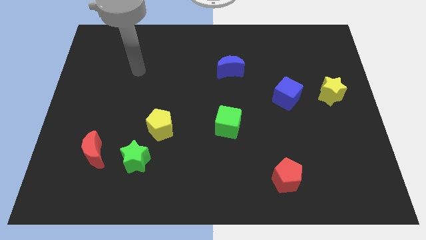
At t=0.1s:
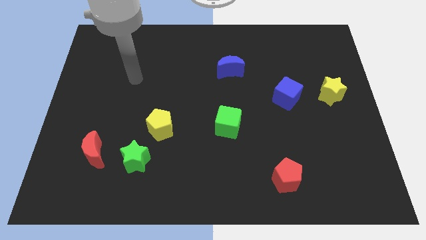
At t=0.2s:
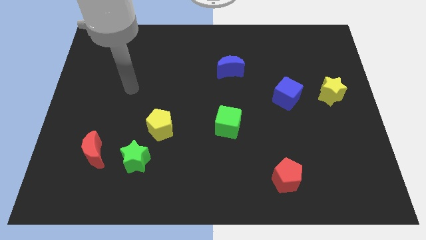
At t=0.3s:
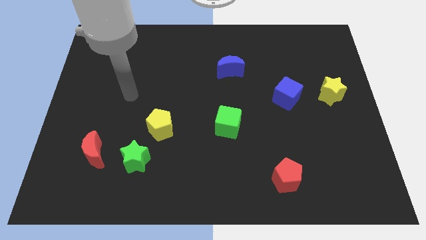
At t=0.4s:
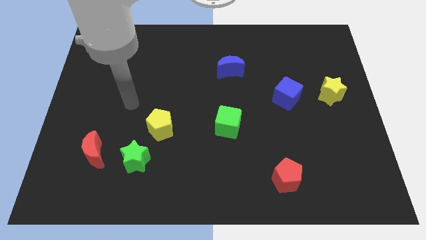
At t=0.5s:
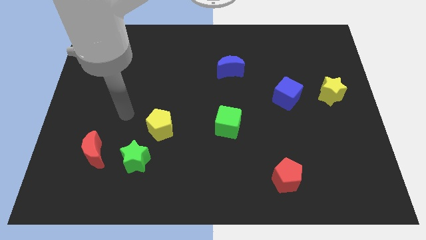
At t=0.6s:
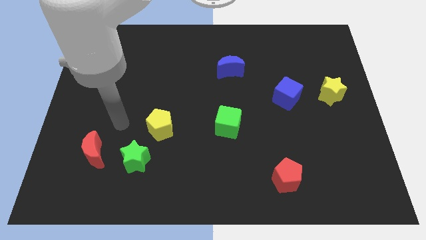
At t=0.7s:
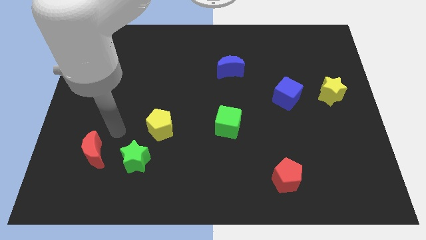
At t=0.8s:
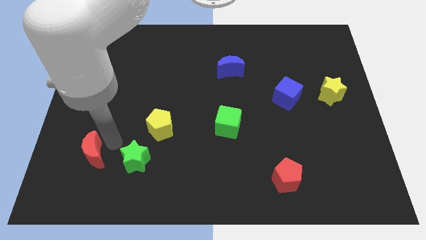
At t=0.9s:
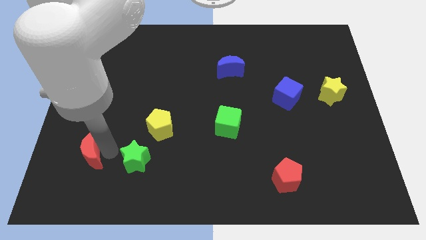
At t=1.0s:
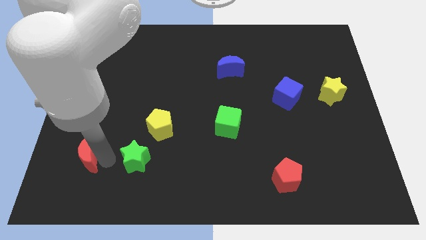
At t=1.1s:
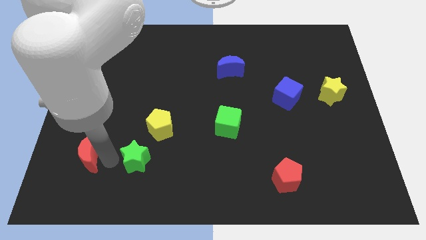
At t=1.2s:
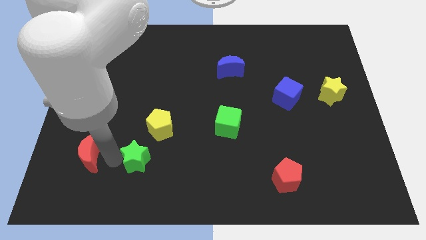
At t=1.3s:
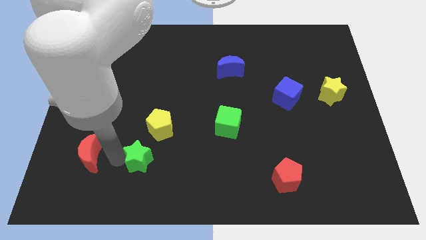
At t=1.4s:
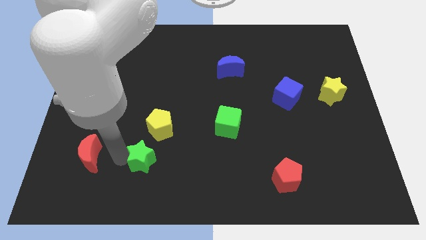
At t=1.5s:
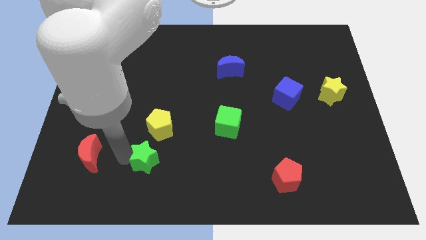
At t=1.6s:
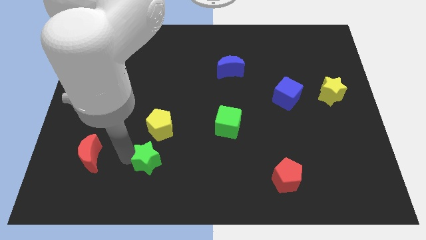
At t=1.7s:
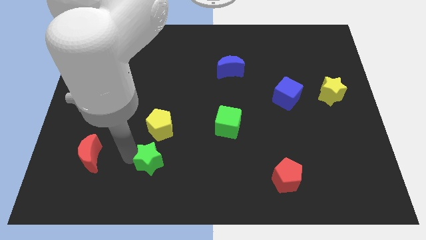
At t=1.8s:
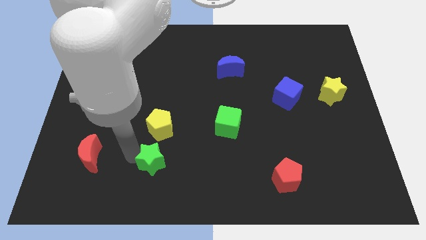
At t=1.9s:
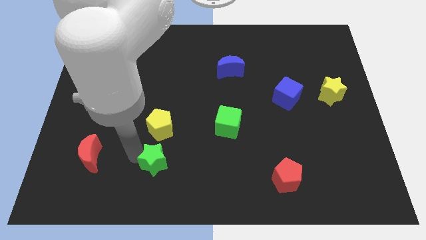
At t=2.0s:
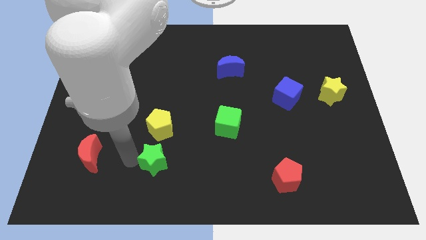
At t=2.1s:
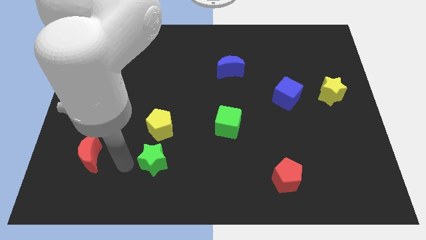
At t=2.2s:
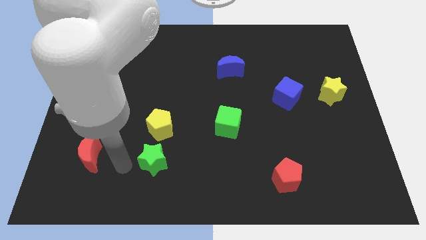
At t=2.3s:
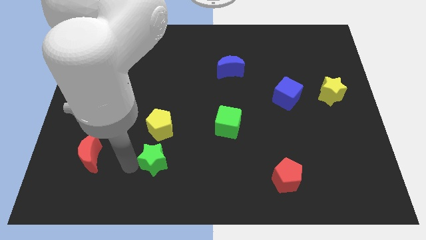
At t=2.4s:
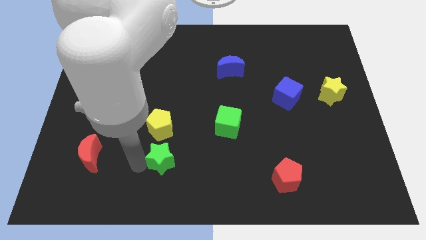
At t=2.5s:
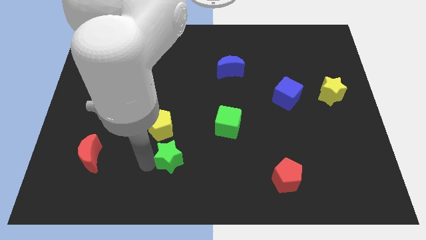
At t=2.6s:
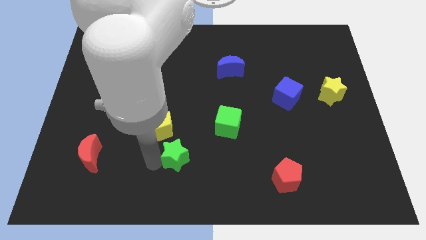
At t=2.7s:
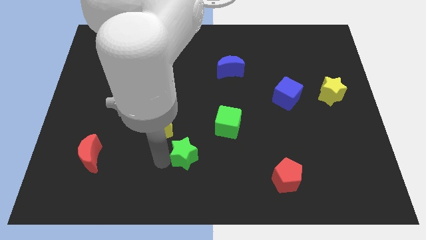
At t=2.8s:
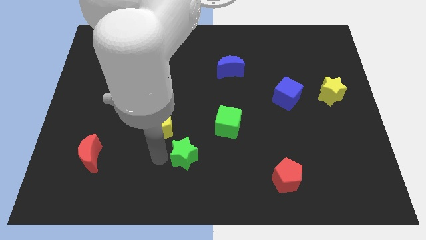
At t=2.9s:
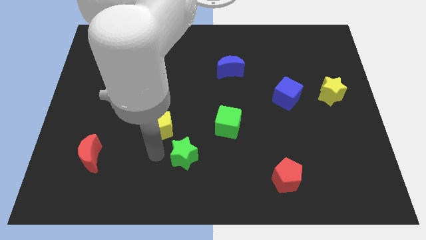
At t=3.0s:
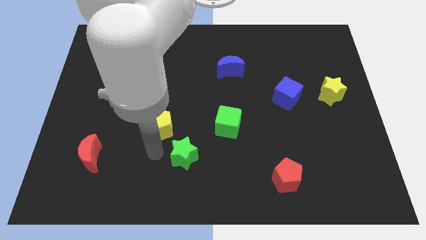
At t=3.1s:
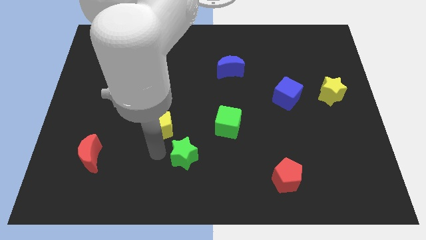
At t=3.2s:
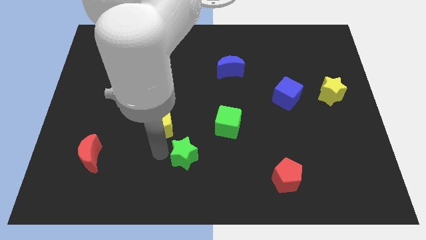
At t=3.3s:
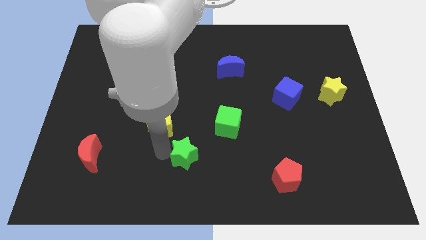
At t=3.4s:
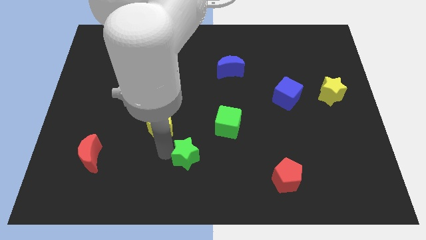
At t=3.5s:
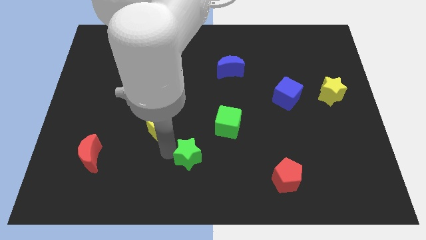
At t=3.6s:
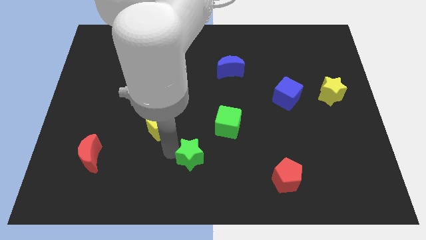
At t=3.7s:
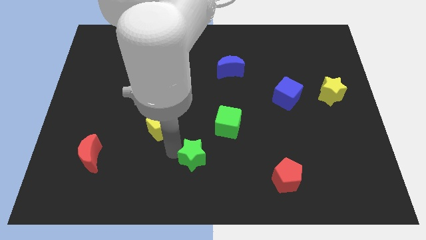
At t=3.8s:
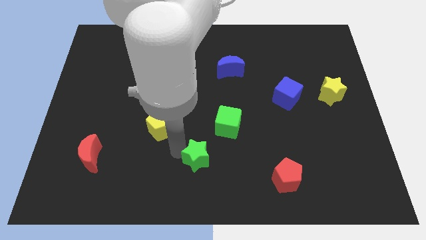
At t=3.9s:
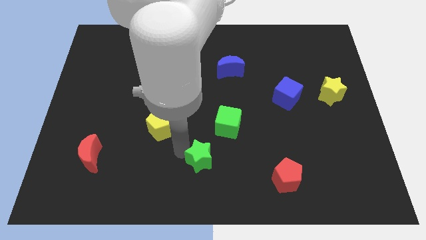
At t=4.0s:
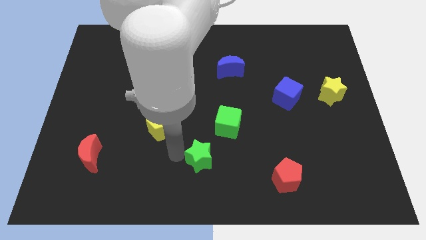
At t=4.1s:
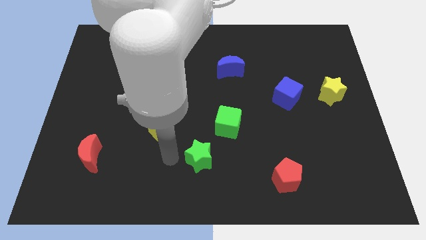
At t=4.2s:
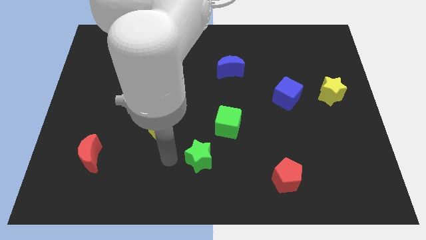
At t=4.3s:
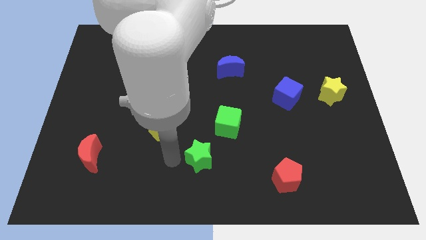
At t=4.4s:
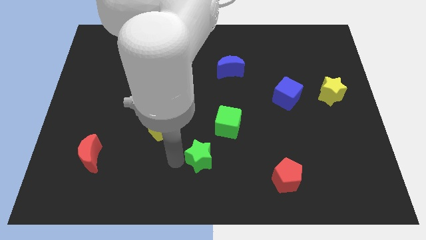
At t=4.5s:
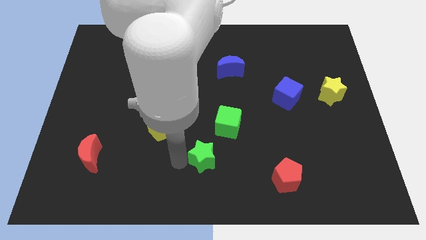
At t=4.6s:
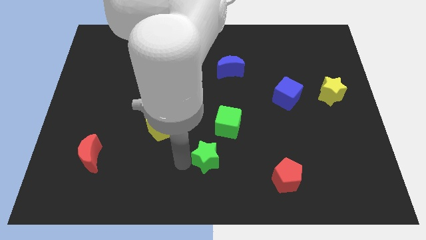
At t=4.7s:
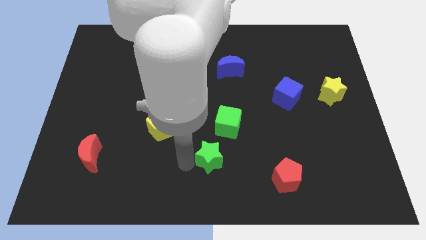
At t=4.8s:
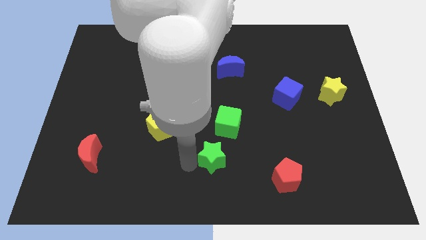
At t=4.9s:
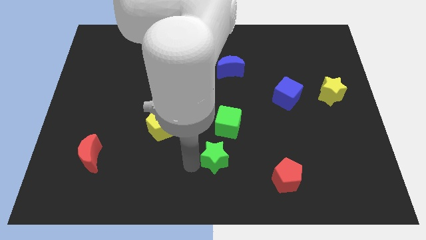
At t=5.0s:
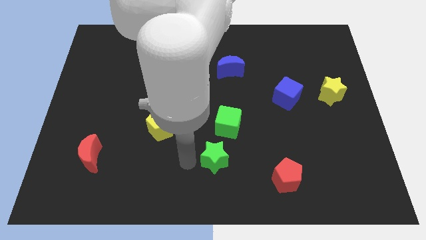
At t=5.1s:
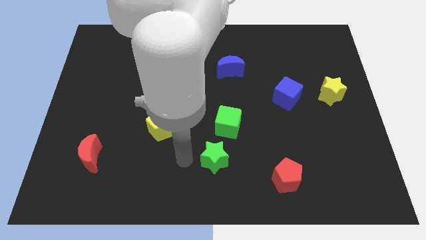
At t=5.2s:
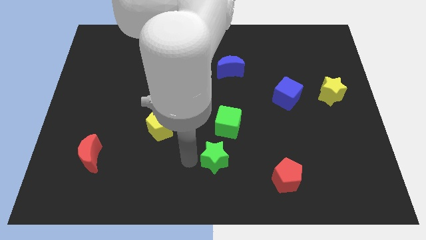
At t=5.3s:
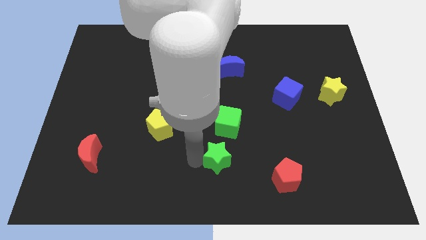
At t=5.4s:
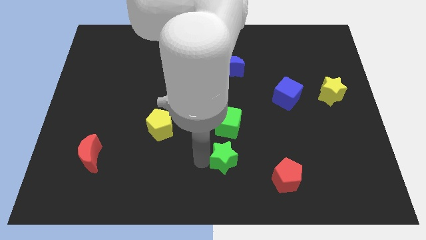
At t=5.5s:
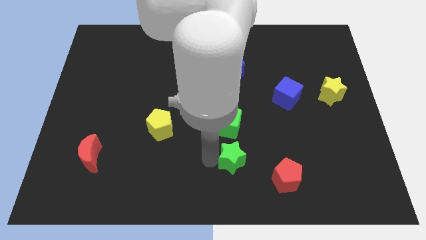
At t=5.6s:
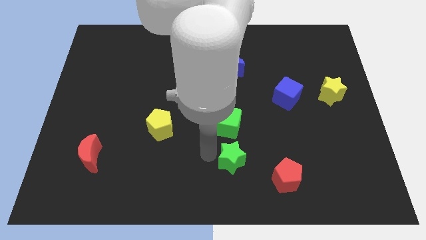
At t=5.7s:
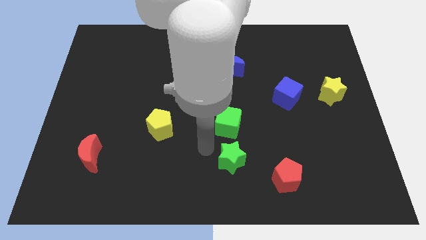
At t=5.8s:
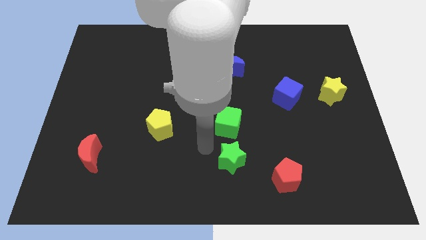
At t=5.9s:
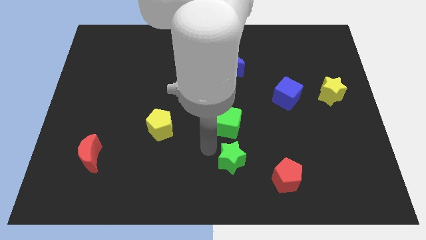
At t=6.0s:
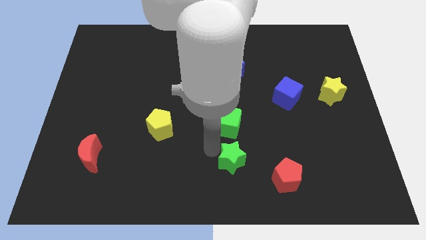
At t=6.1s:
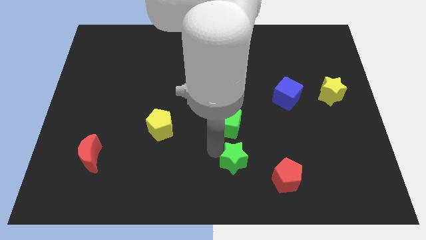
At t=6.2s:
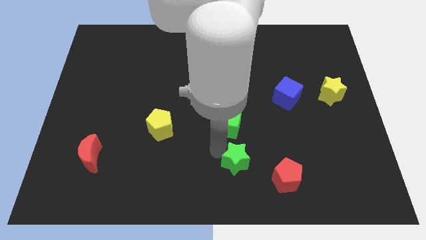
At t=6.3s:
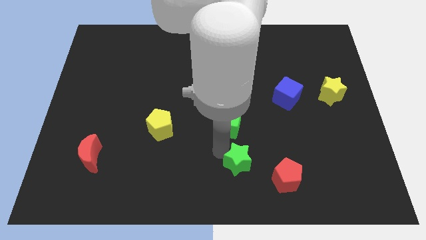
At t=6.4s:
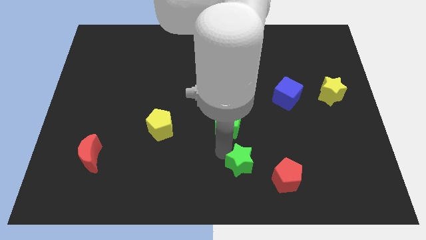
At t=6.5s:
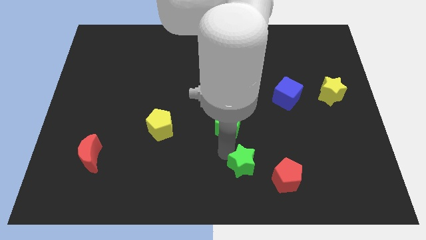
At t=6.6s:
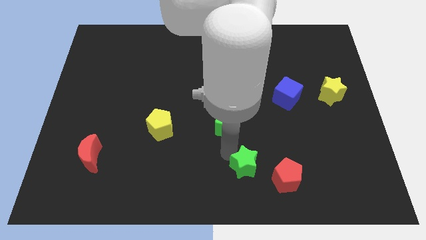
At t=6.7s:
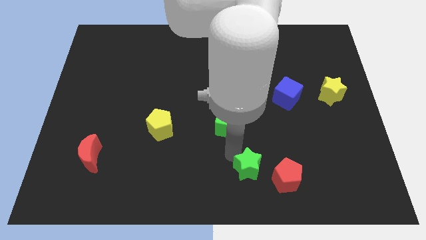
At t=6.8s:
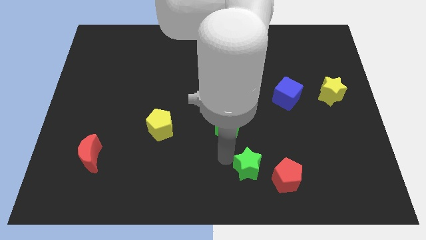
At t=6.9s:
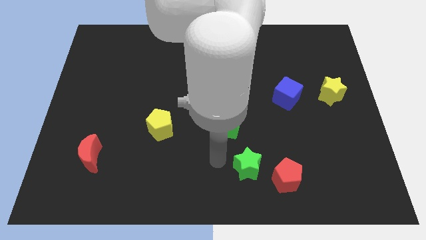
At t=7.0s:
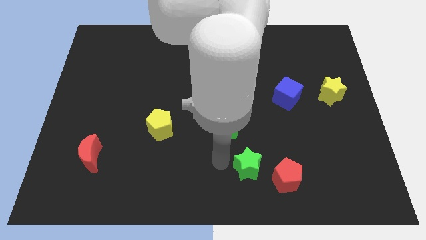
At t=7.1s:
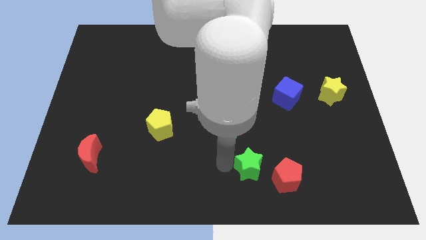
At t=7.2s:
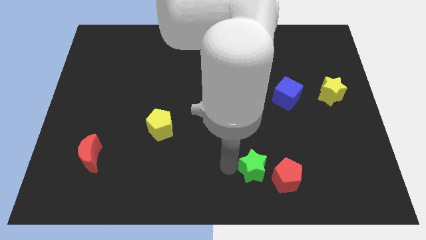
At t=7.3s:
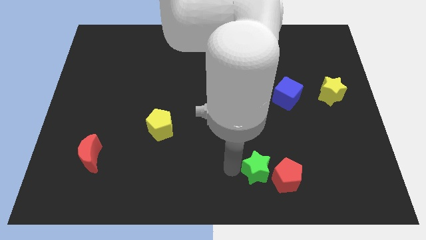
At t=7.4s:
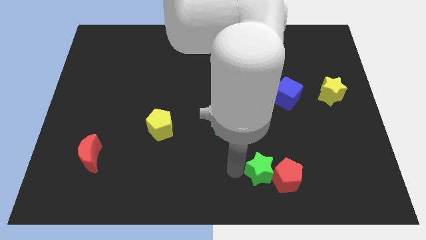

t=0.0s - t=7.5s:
put the green star next to the red pentagon

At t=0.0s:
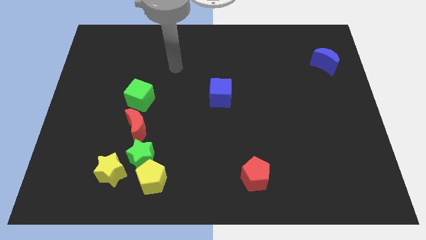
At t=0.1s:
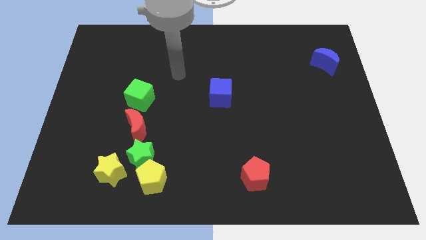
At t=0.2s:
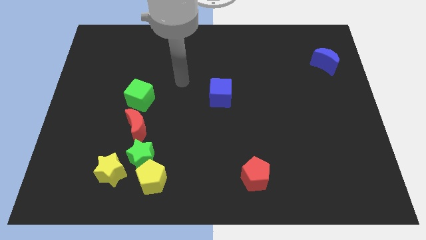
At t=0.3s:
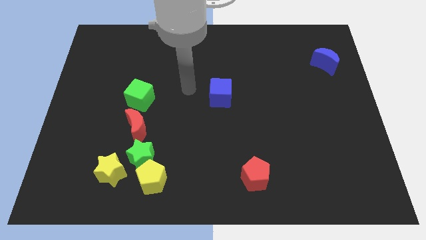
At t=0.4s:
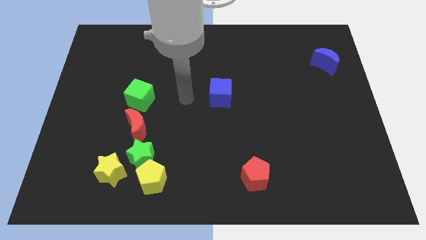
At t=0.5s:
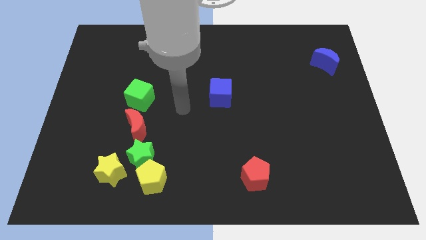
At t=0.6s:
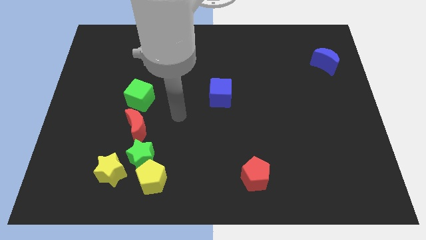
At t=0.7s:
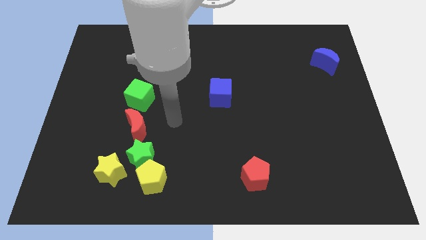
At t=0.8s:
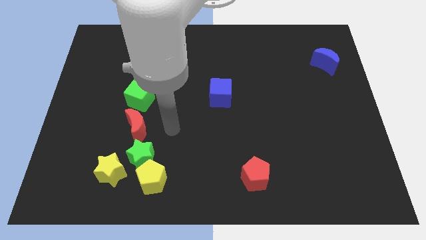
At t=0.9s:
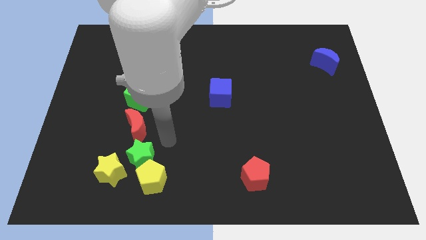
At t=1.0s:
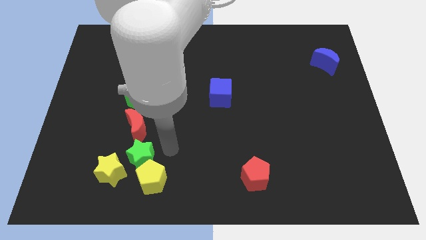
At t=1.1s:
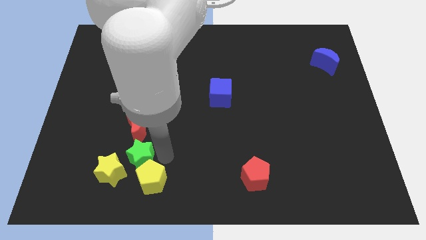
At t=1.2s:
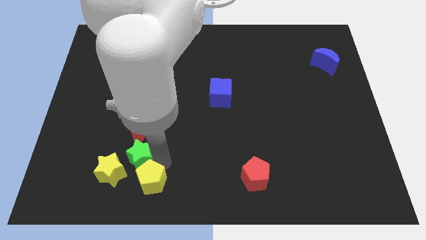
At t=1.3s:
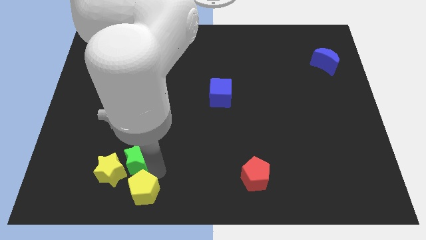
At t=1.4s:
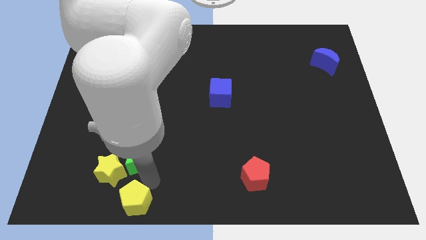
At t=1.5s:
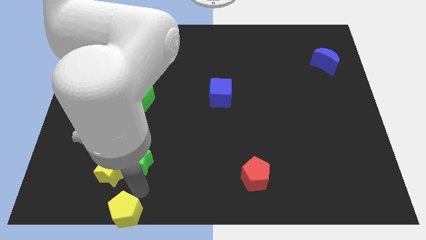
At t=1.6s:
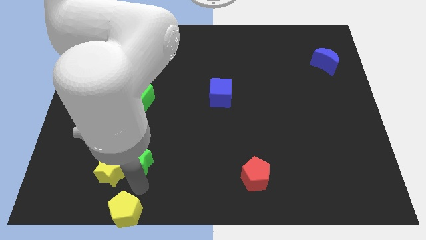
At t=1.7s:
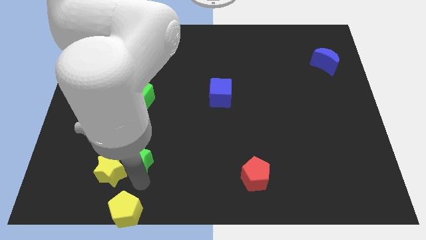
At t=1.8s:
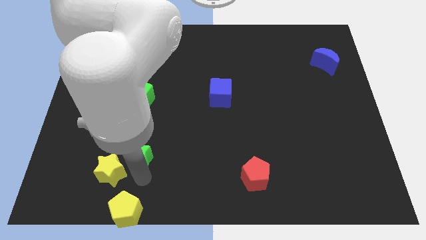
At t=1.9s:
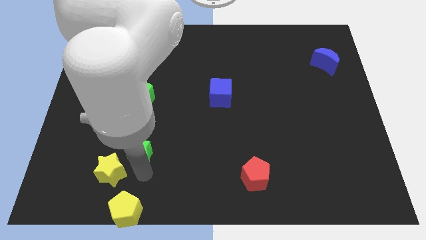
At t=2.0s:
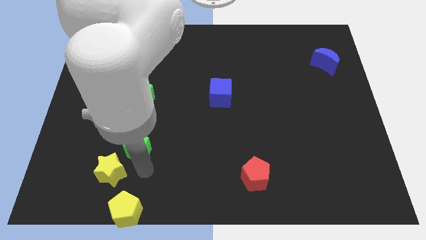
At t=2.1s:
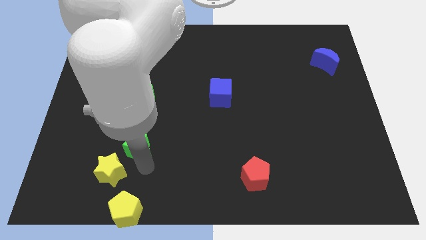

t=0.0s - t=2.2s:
move the green star to the red moon
